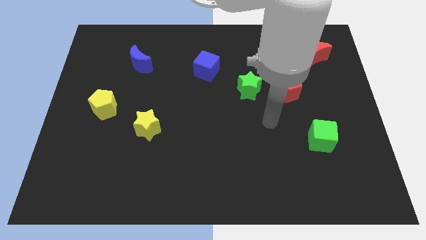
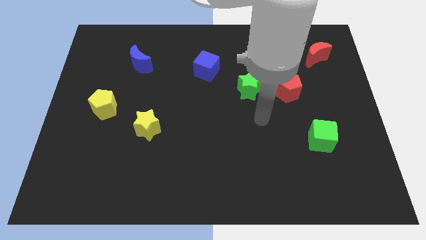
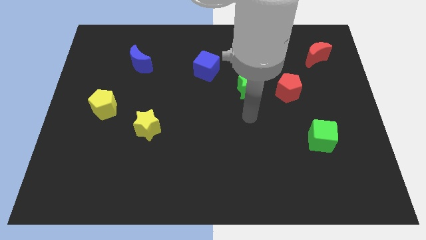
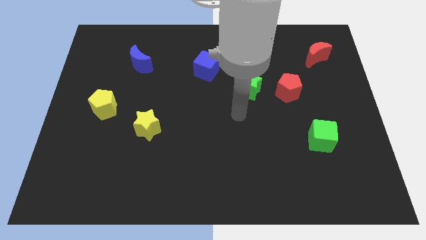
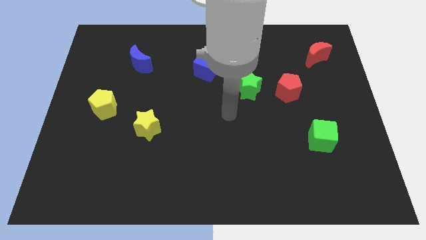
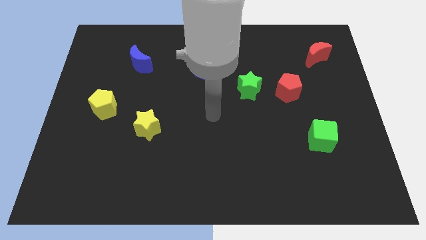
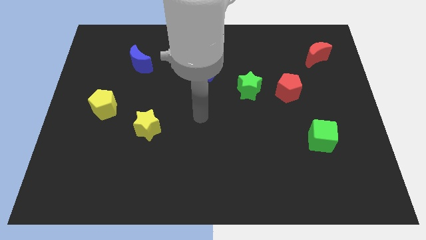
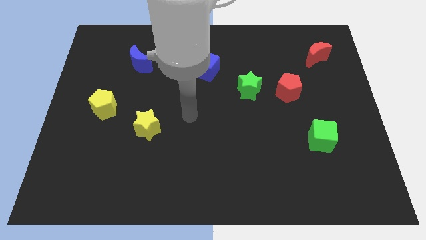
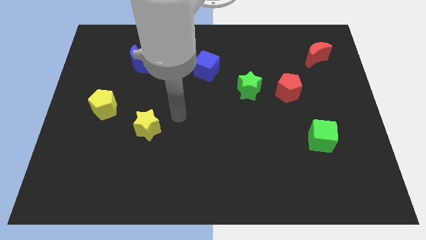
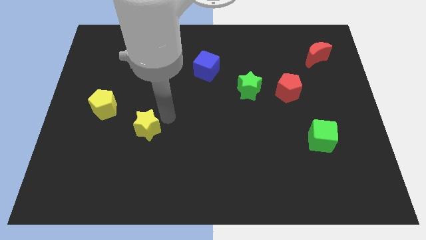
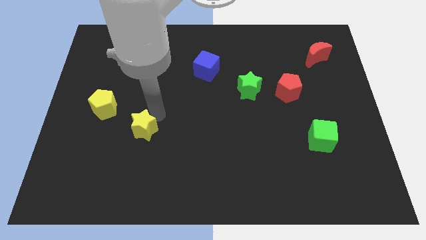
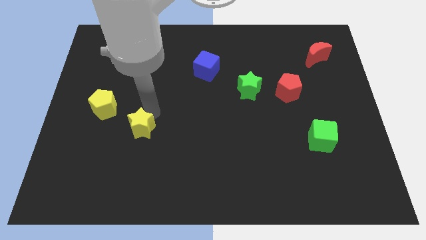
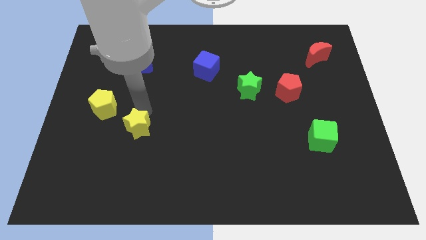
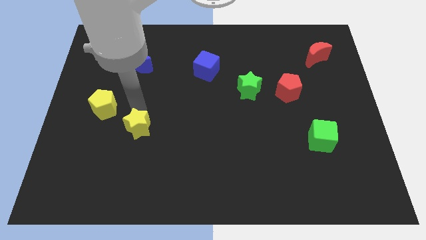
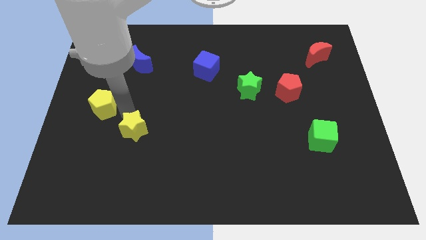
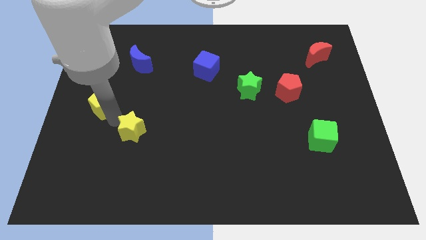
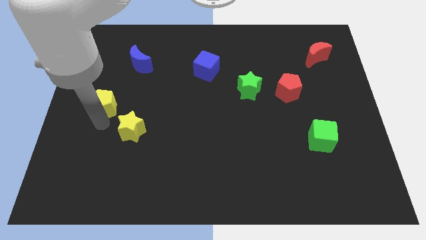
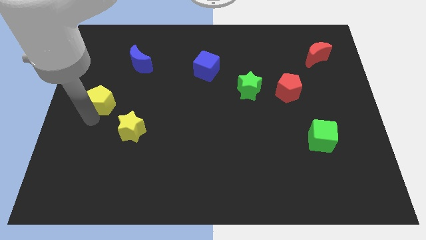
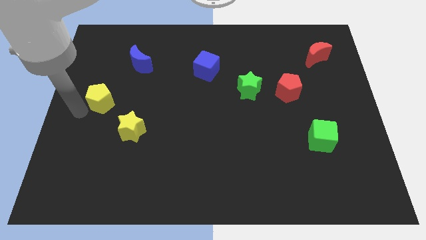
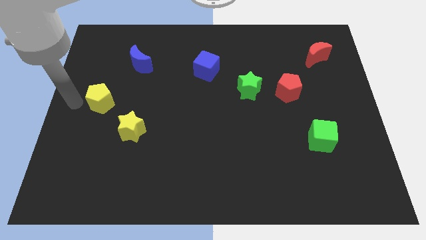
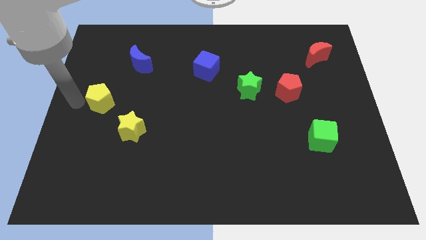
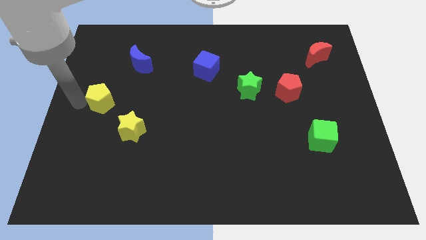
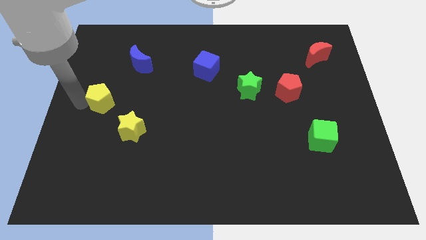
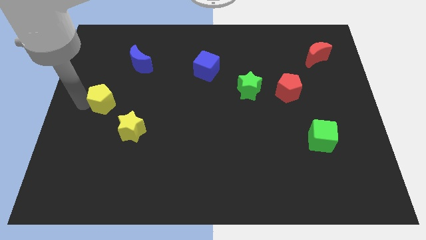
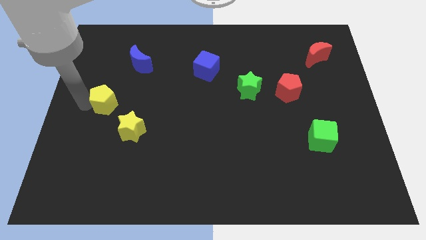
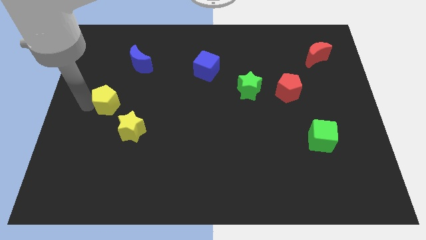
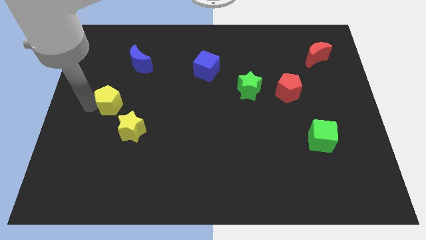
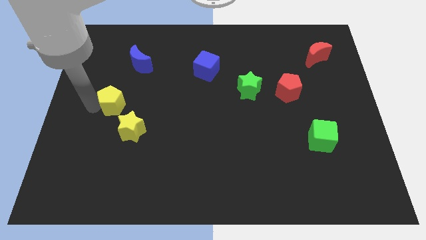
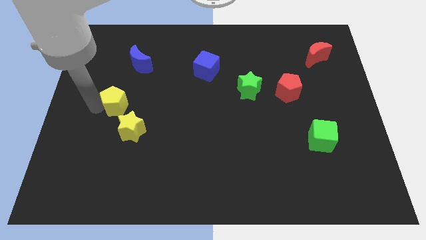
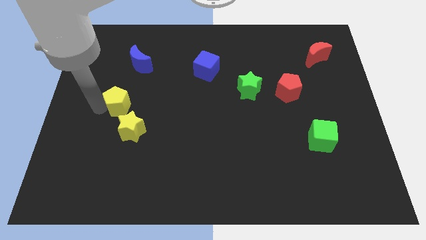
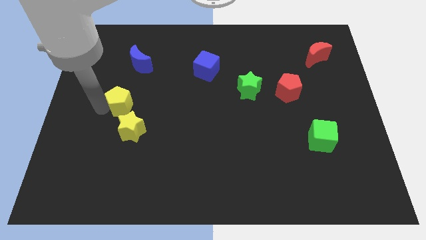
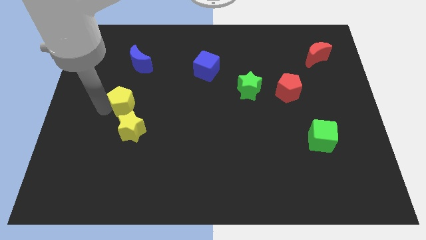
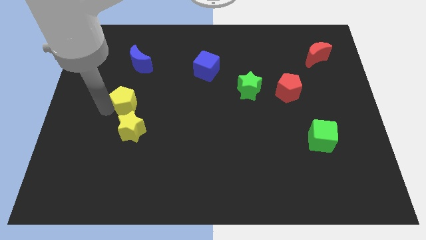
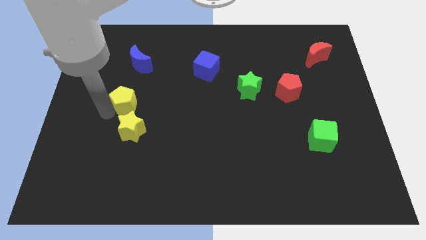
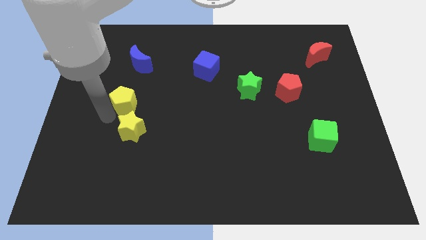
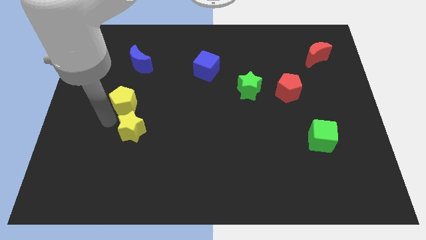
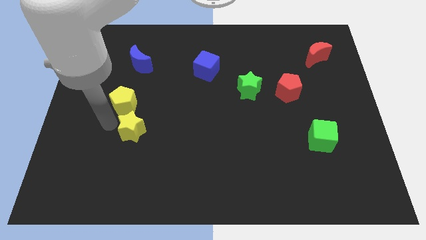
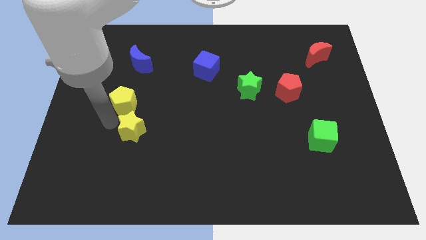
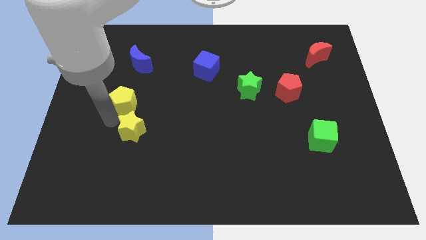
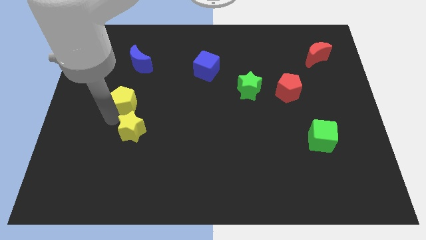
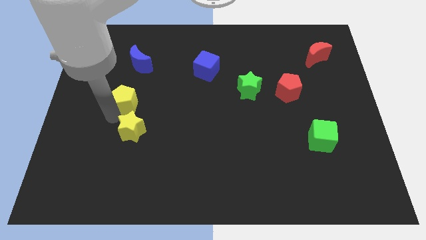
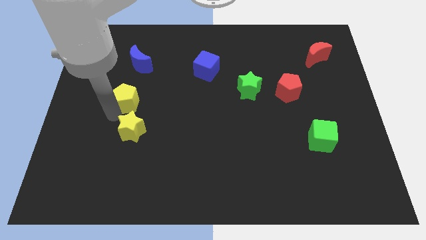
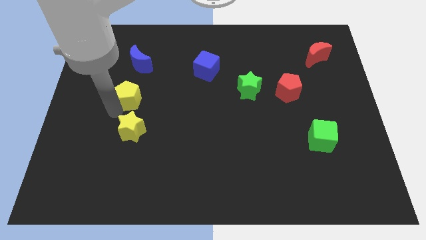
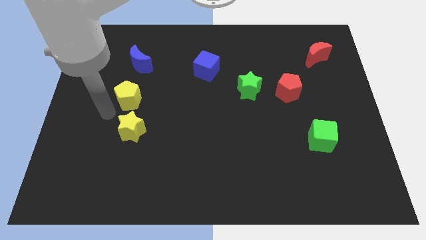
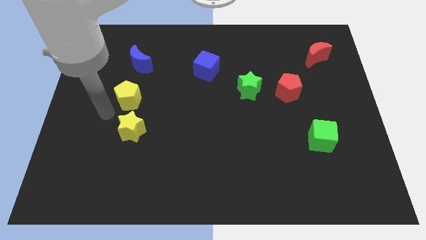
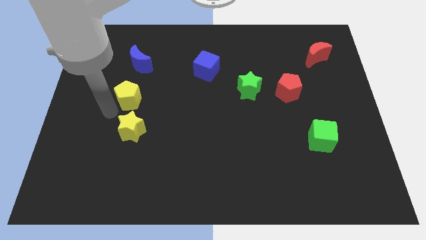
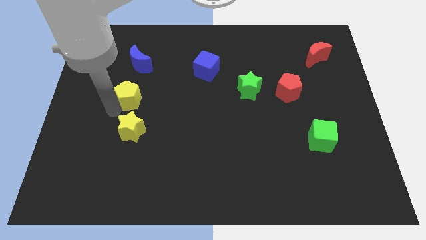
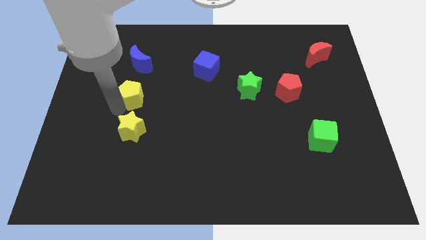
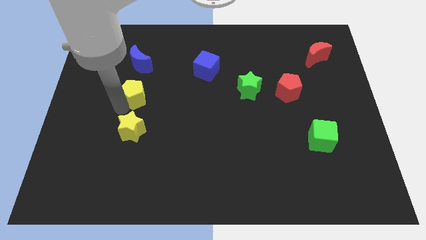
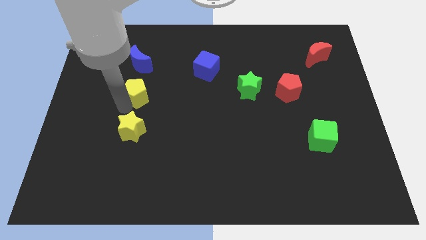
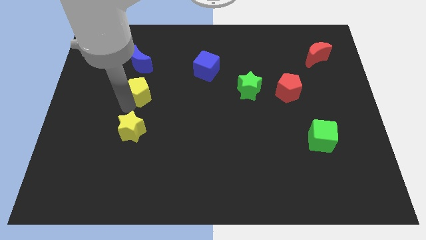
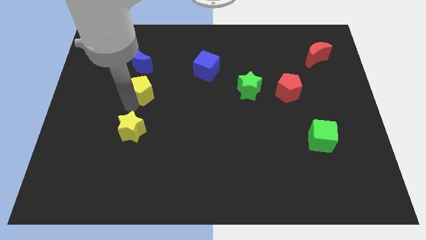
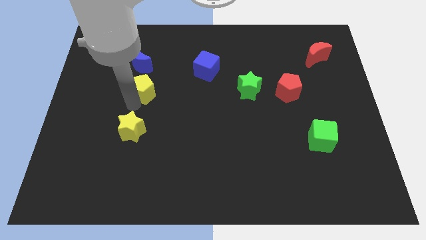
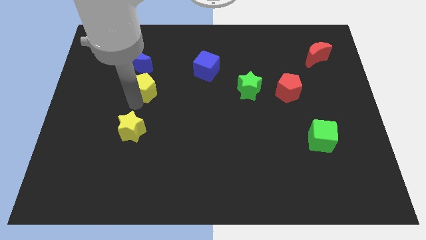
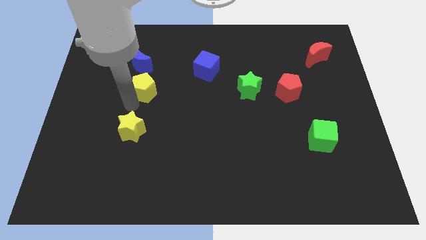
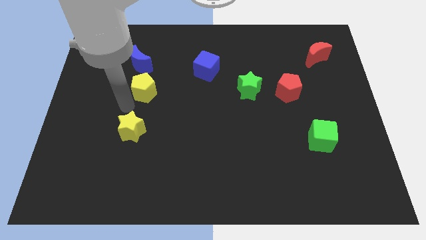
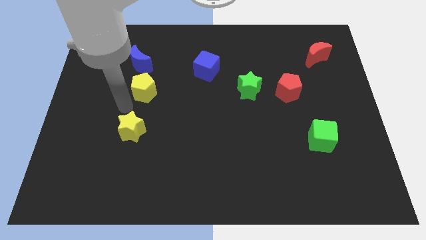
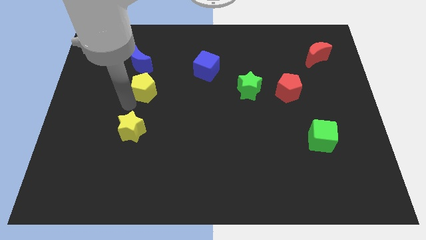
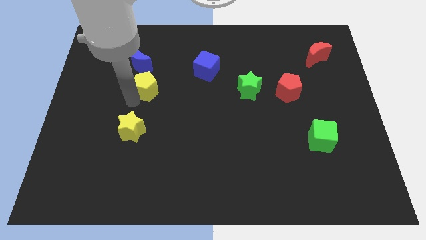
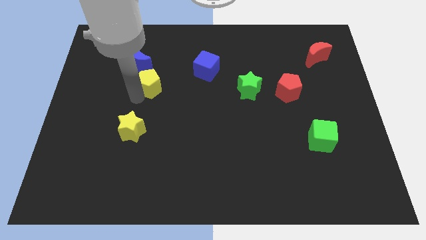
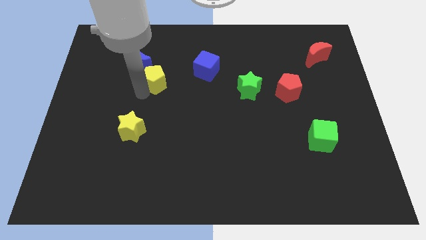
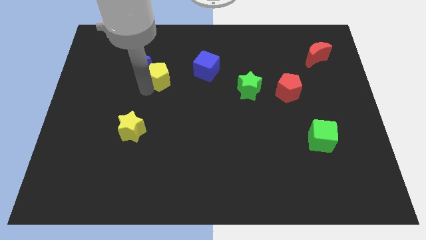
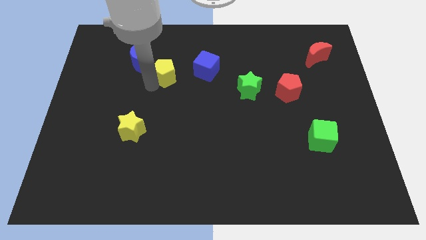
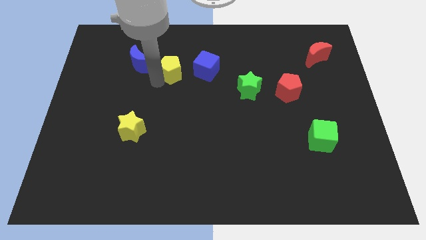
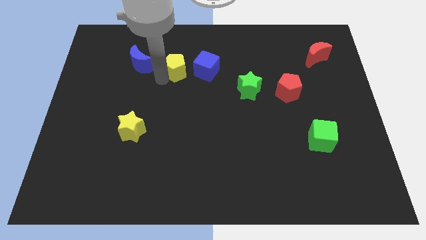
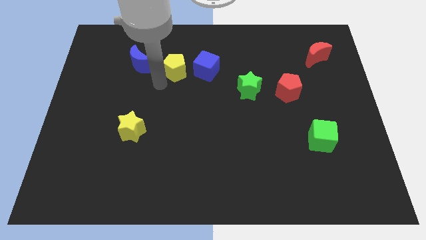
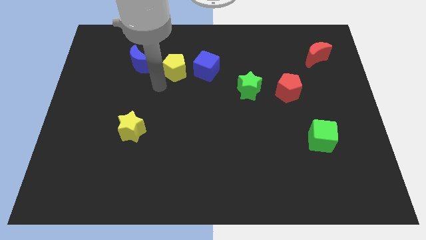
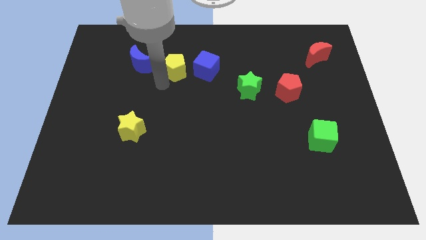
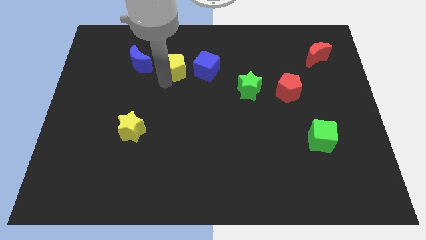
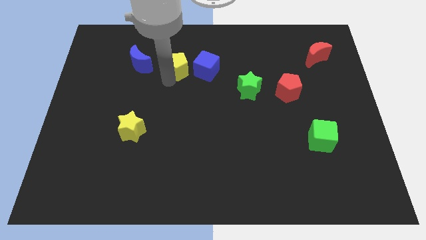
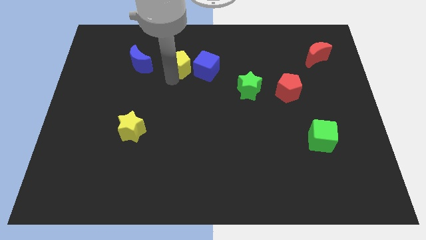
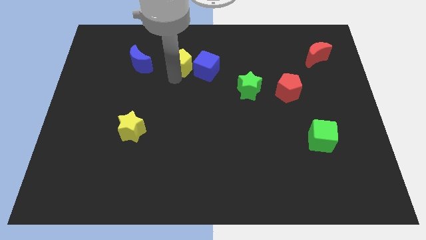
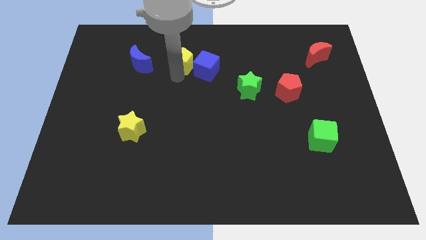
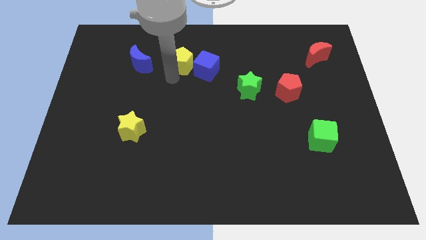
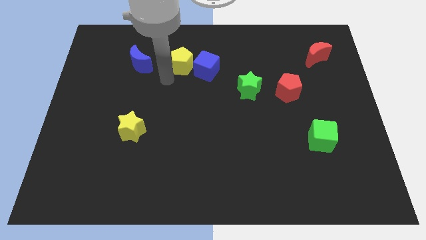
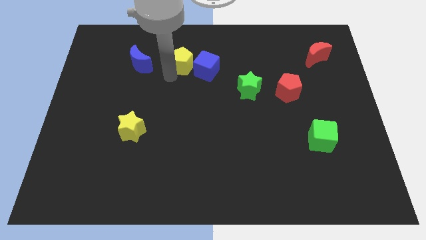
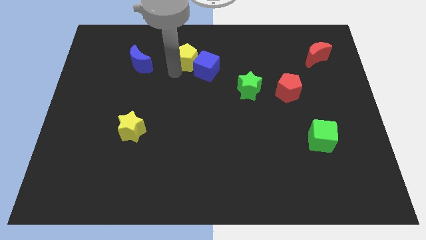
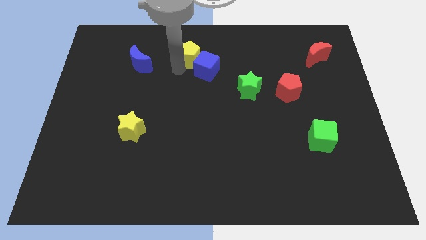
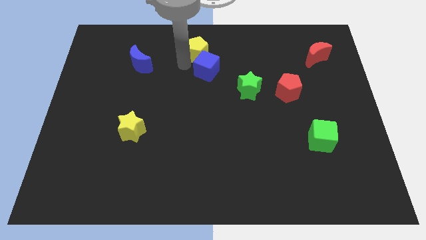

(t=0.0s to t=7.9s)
put the yellow pentagon to the top
